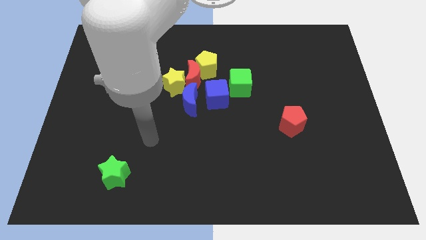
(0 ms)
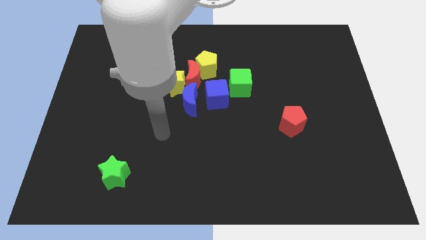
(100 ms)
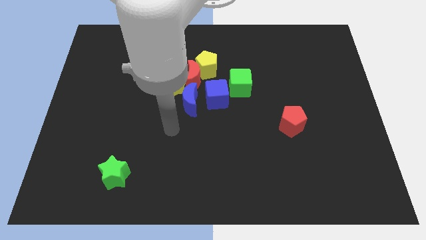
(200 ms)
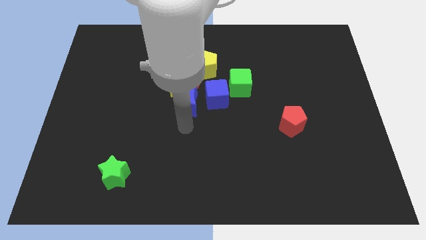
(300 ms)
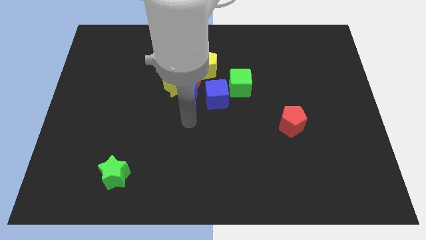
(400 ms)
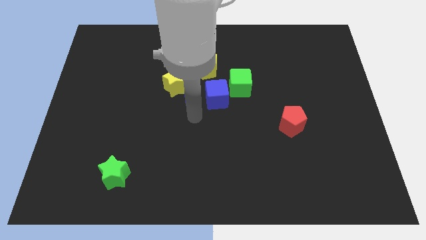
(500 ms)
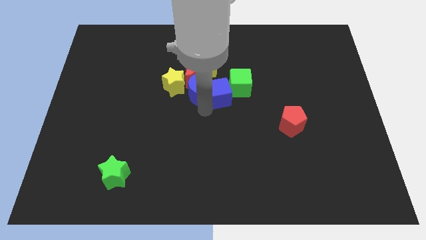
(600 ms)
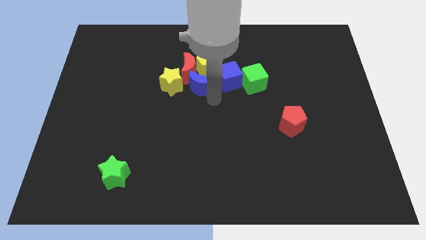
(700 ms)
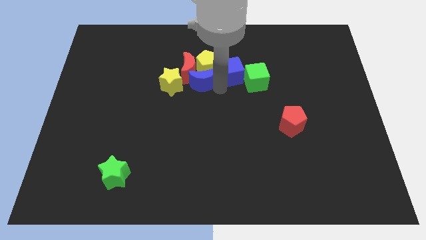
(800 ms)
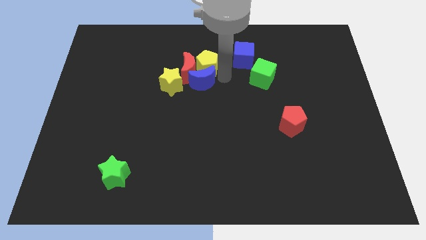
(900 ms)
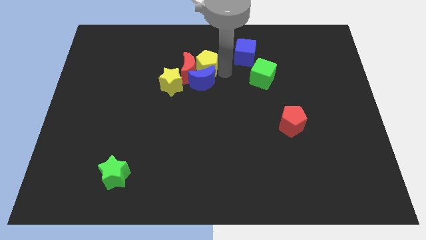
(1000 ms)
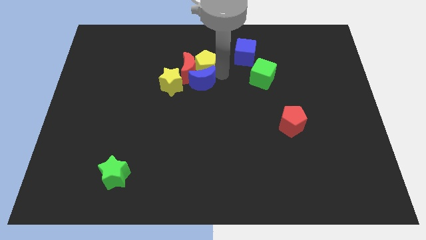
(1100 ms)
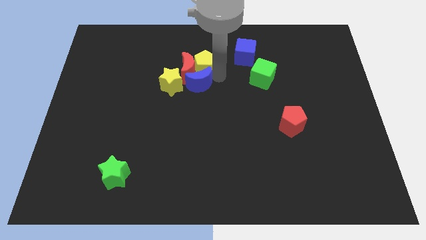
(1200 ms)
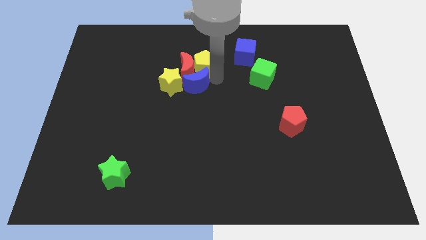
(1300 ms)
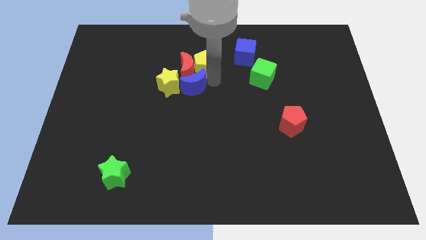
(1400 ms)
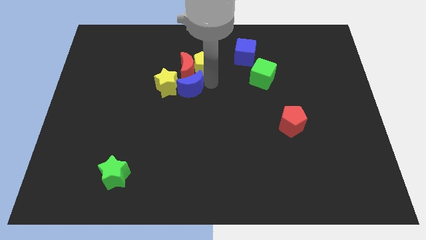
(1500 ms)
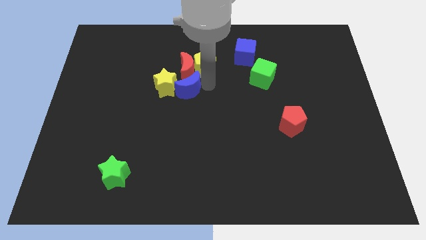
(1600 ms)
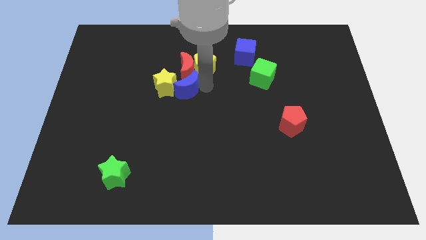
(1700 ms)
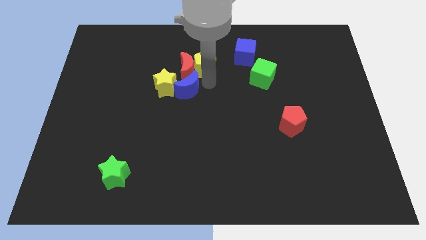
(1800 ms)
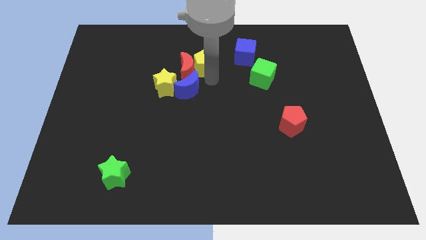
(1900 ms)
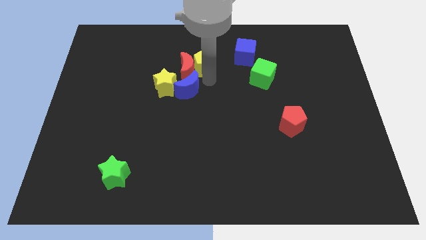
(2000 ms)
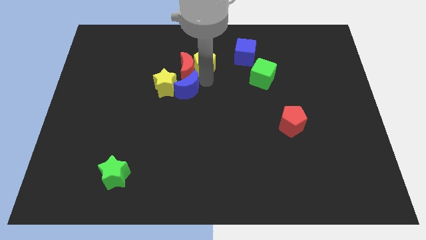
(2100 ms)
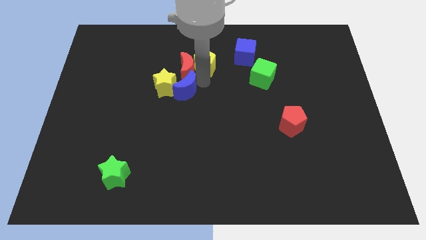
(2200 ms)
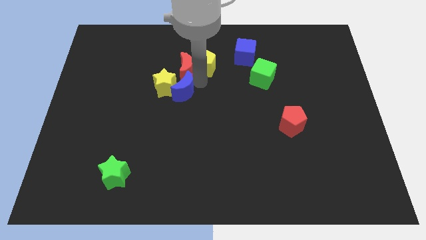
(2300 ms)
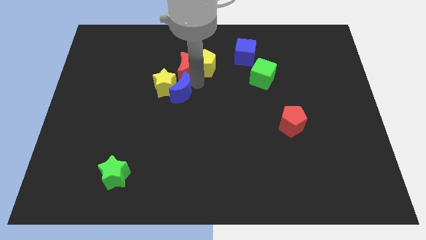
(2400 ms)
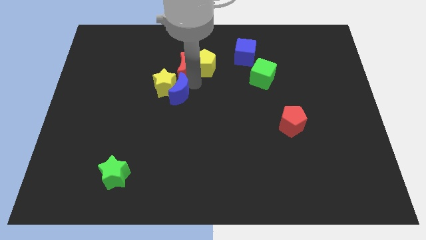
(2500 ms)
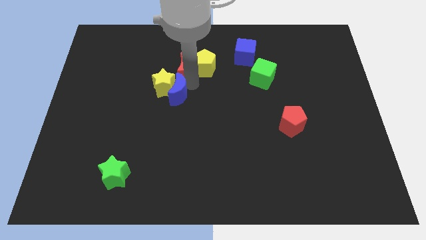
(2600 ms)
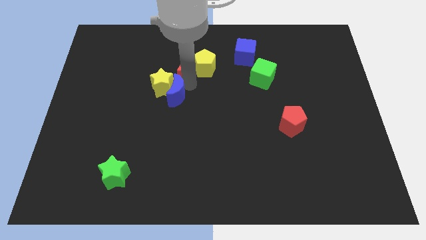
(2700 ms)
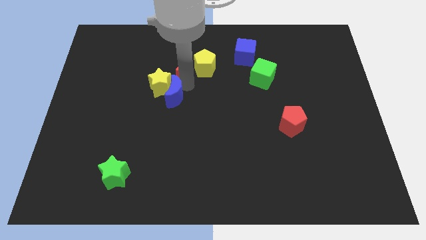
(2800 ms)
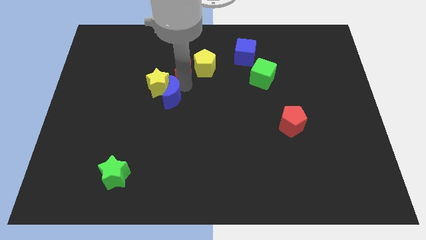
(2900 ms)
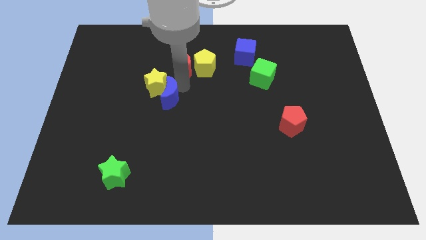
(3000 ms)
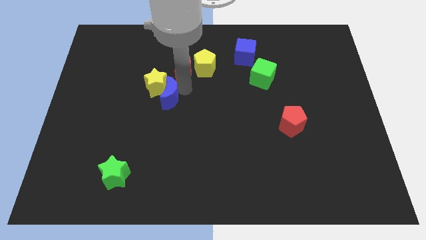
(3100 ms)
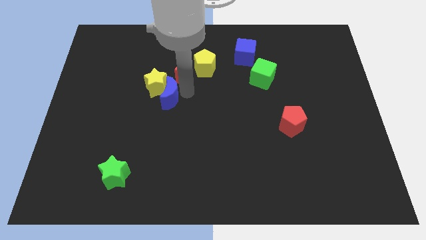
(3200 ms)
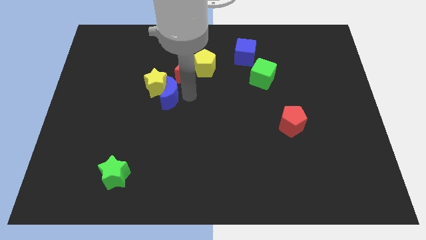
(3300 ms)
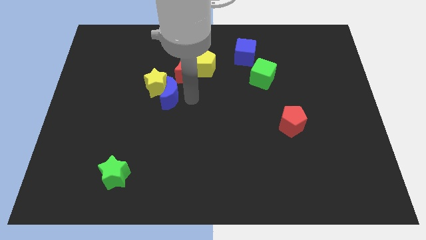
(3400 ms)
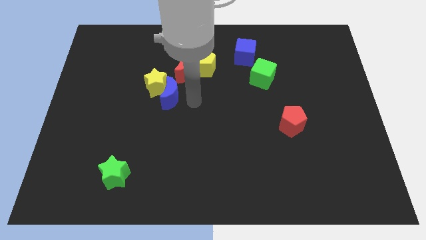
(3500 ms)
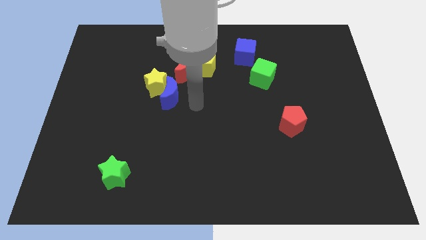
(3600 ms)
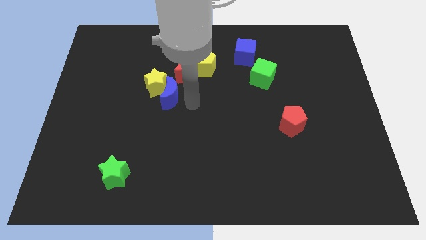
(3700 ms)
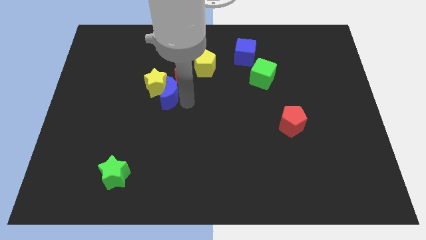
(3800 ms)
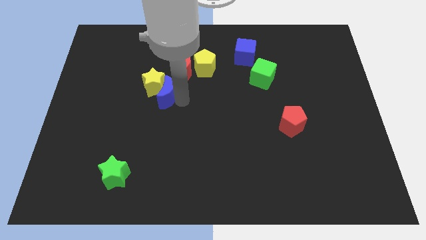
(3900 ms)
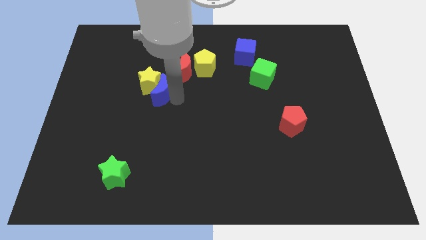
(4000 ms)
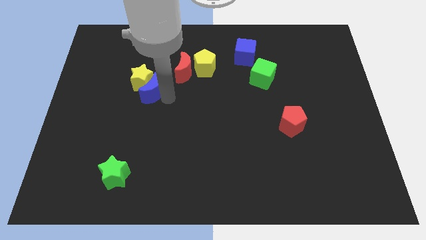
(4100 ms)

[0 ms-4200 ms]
move the blue moon upwards and then left a bit

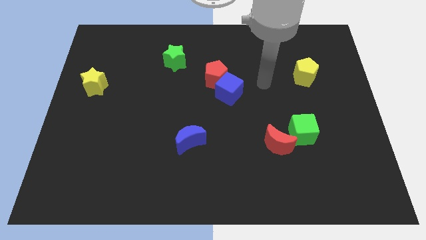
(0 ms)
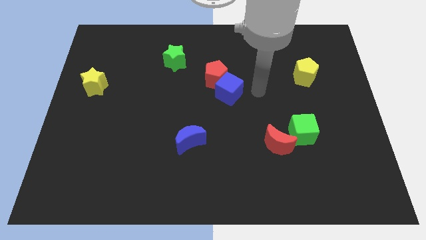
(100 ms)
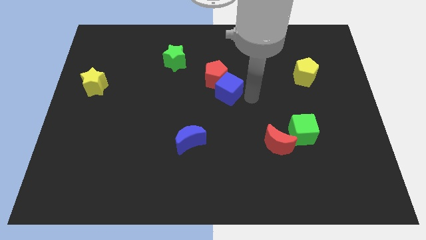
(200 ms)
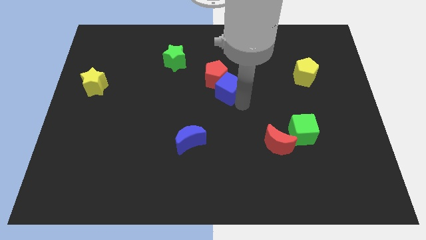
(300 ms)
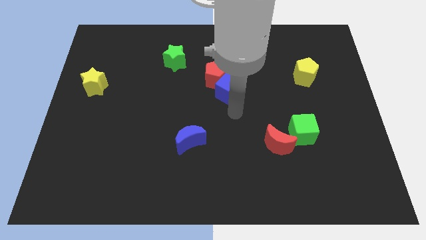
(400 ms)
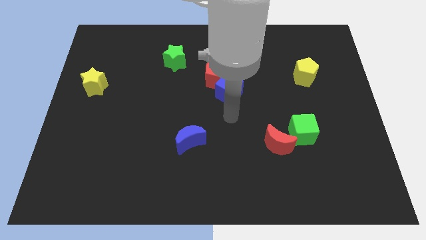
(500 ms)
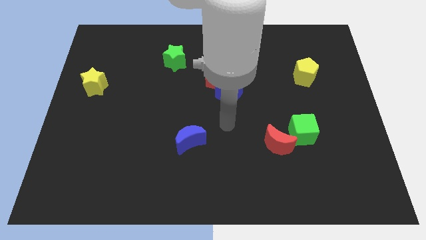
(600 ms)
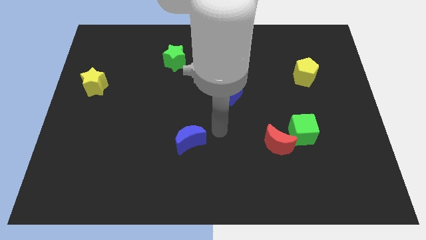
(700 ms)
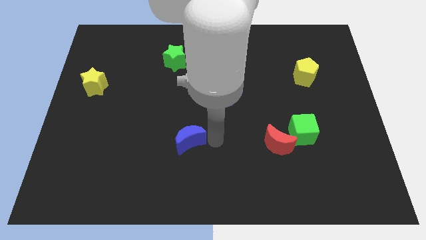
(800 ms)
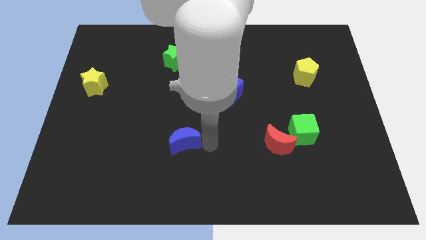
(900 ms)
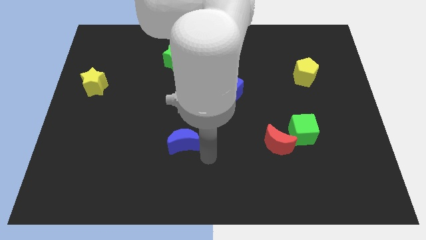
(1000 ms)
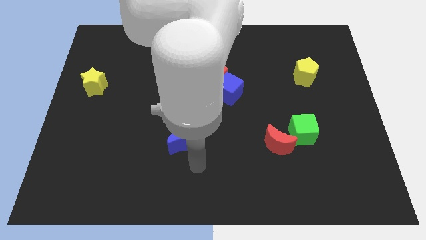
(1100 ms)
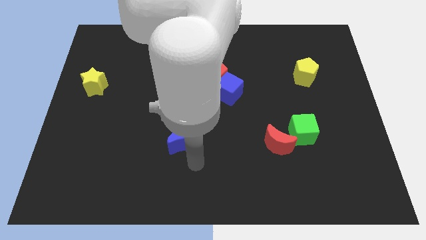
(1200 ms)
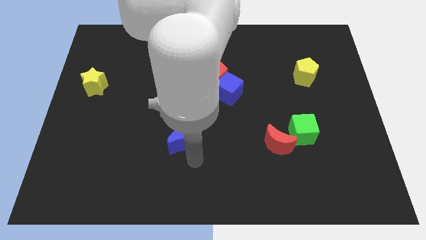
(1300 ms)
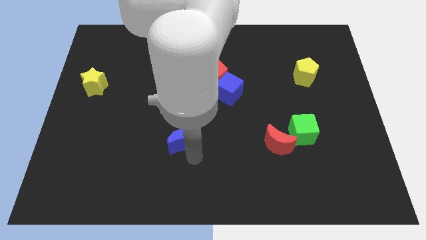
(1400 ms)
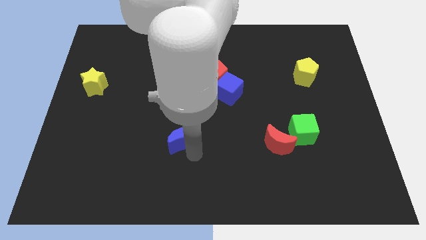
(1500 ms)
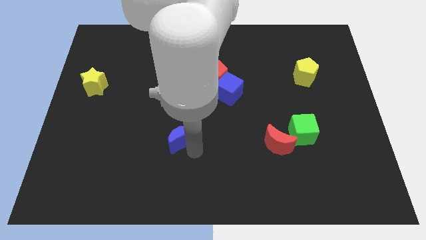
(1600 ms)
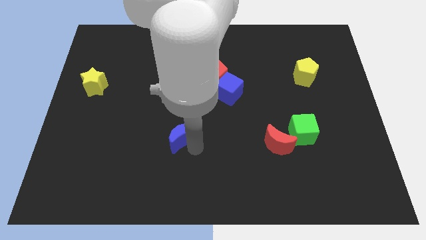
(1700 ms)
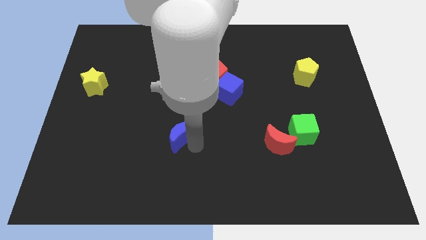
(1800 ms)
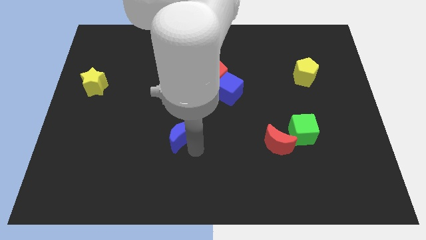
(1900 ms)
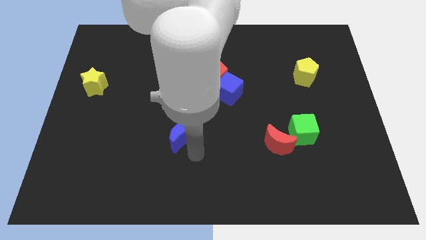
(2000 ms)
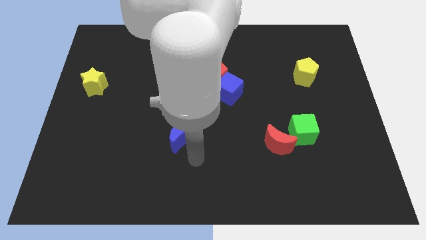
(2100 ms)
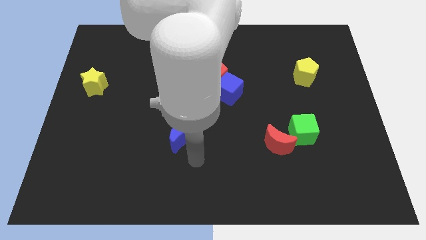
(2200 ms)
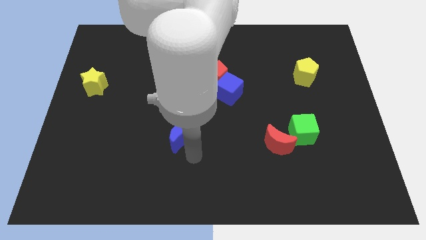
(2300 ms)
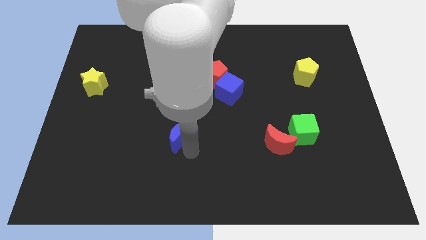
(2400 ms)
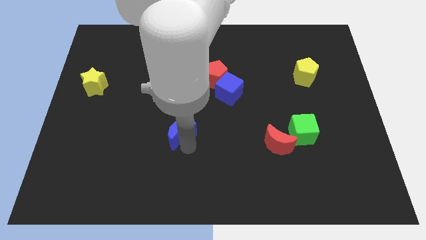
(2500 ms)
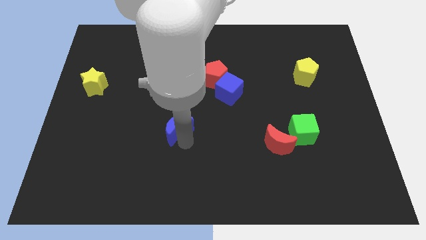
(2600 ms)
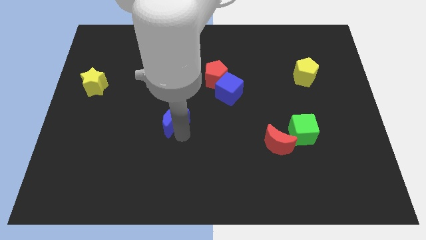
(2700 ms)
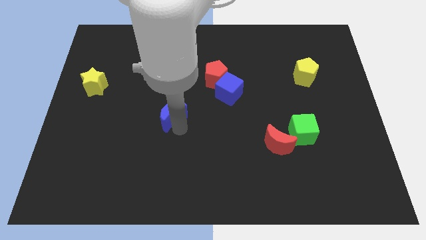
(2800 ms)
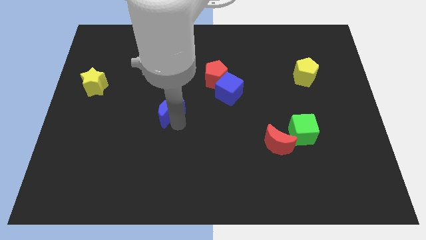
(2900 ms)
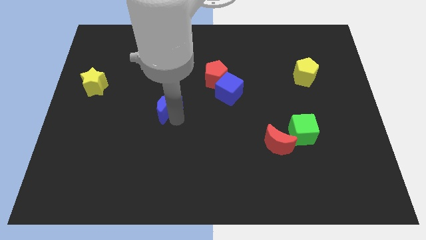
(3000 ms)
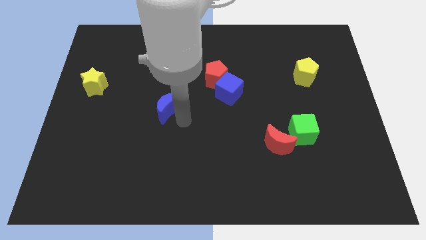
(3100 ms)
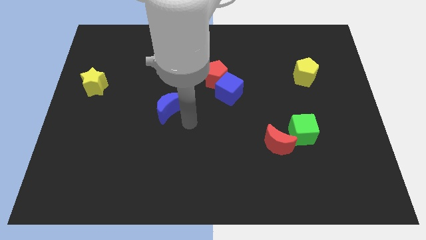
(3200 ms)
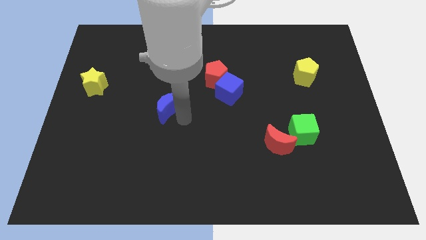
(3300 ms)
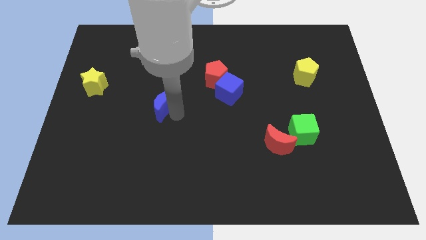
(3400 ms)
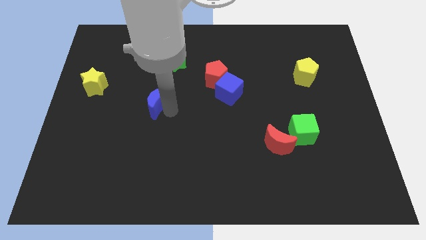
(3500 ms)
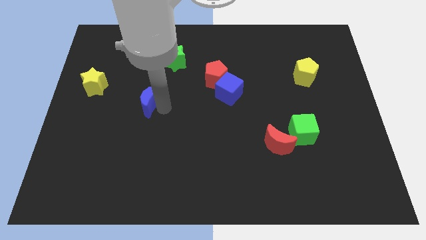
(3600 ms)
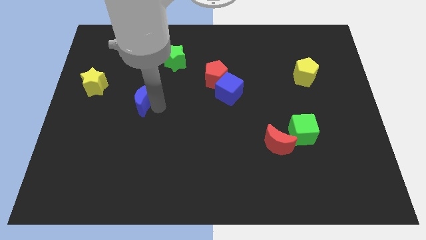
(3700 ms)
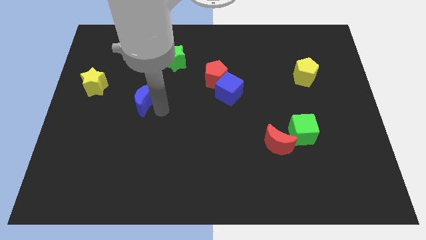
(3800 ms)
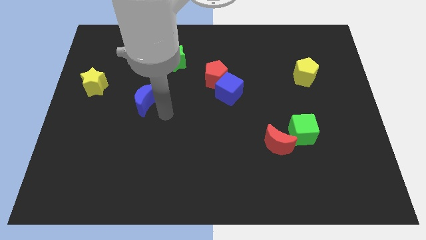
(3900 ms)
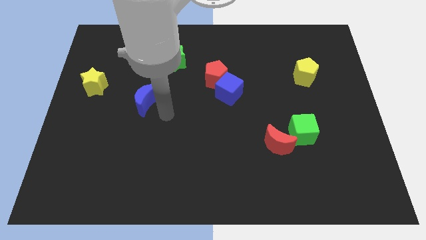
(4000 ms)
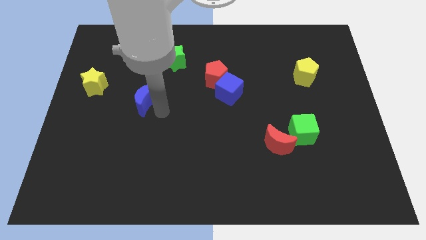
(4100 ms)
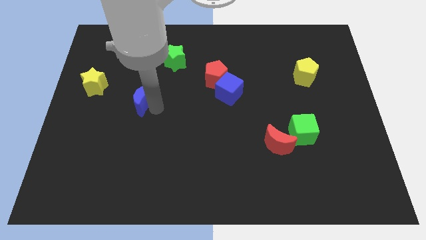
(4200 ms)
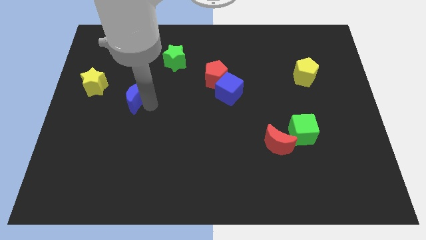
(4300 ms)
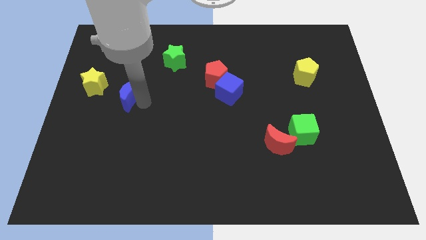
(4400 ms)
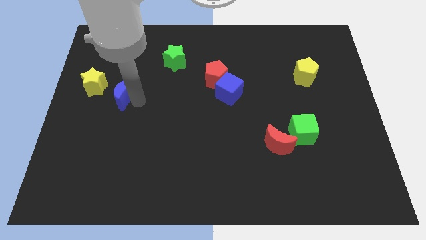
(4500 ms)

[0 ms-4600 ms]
move the blue moon diagonally up and left
